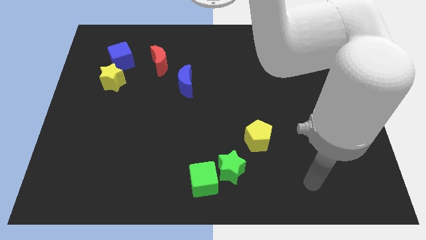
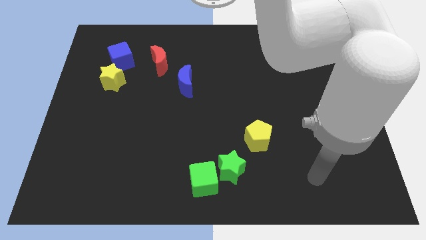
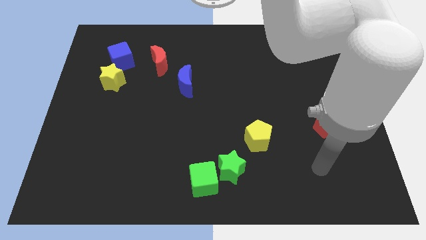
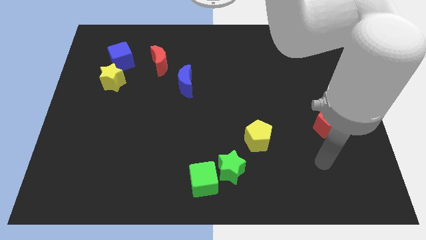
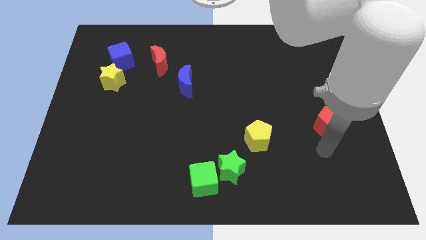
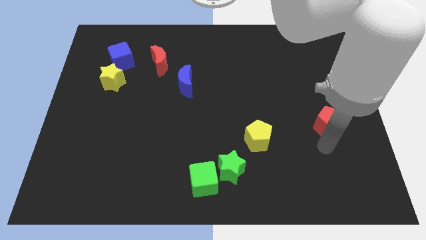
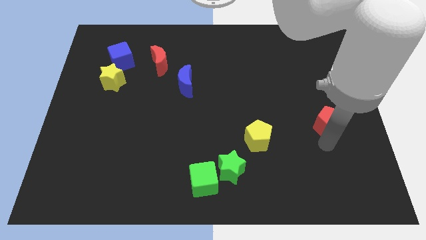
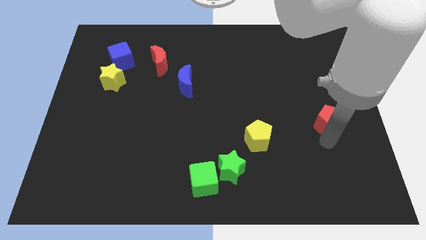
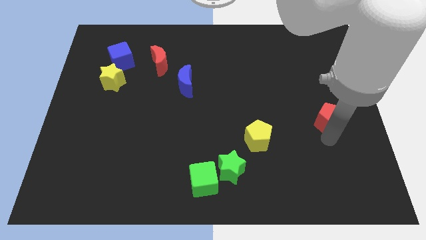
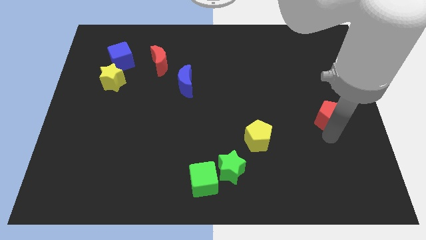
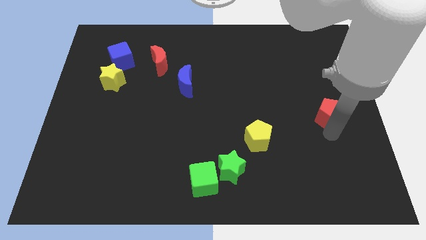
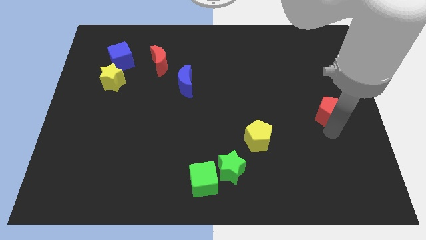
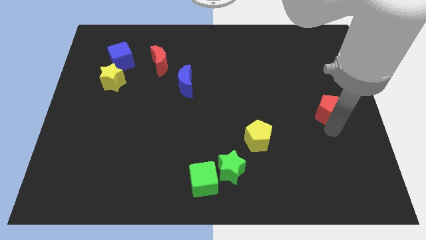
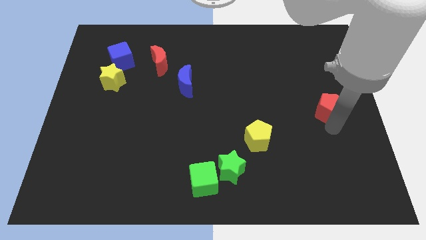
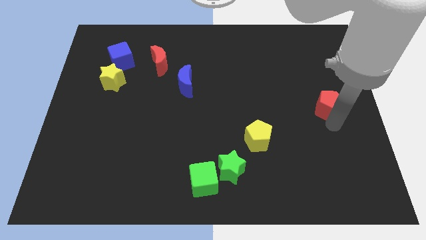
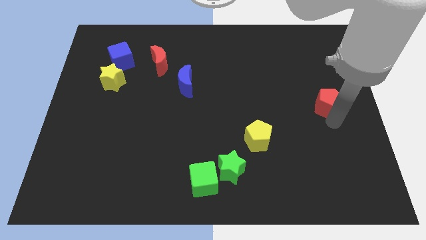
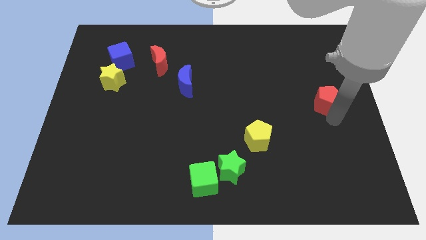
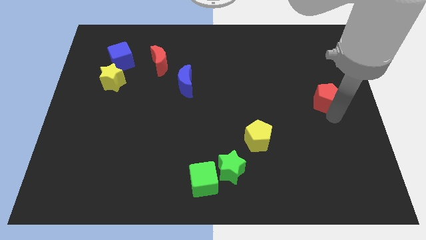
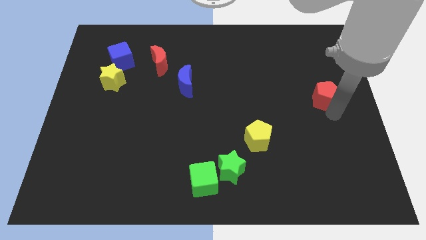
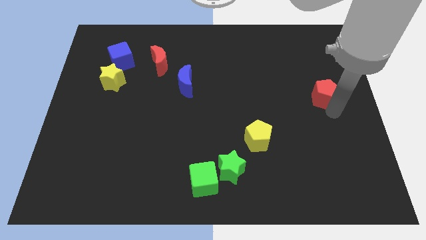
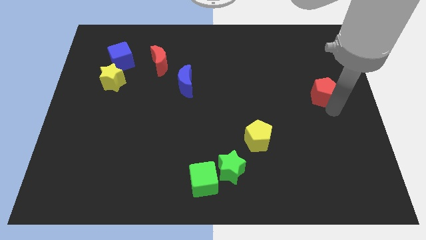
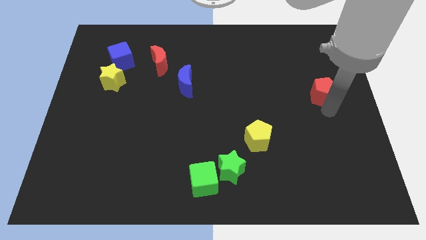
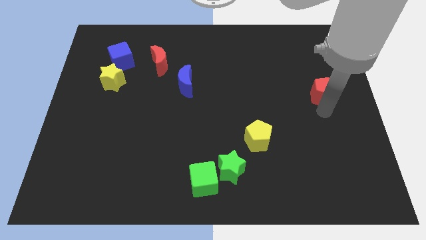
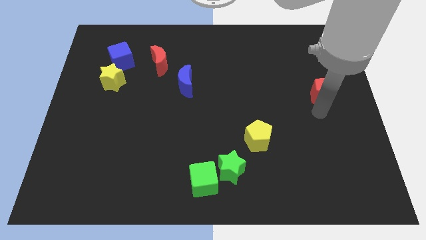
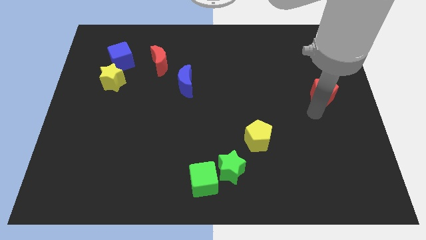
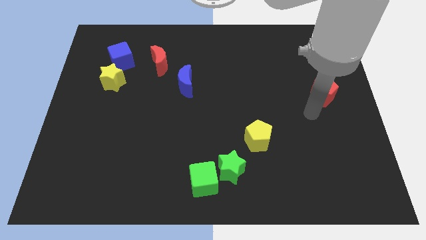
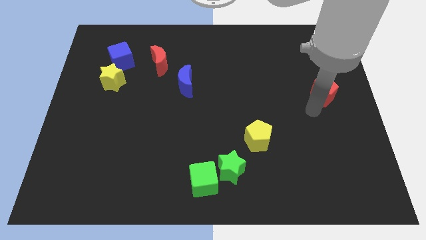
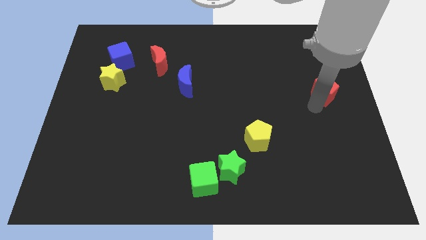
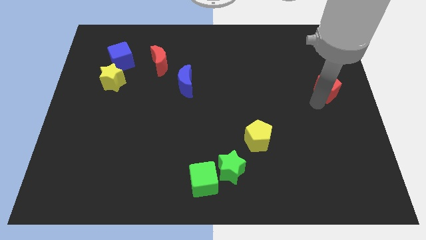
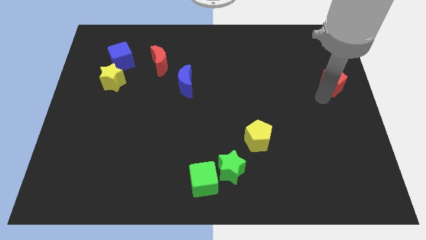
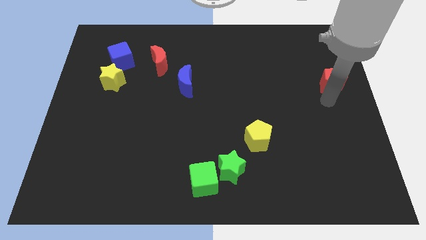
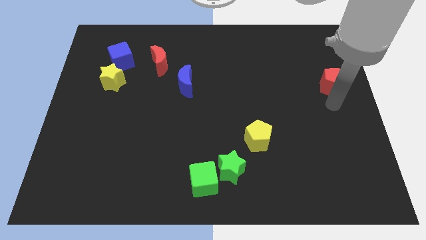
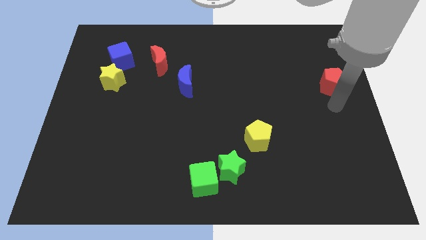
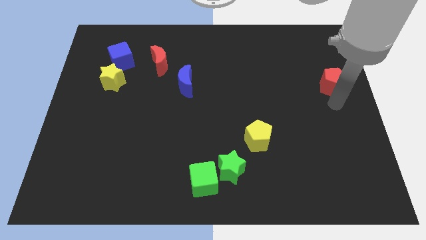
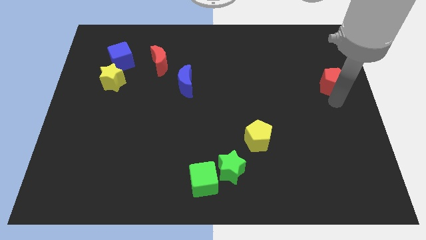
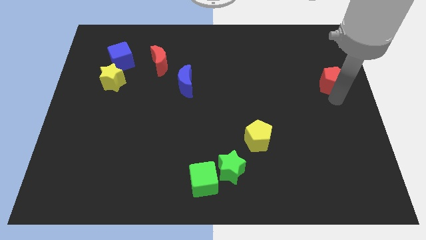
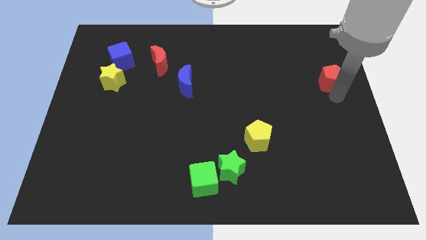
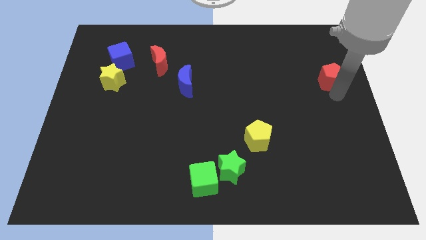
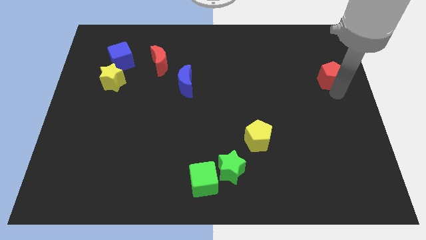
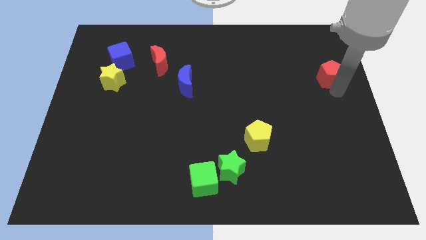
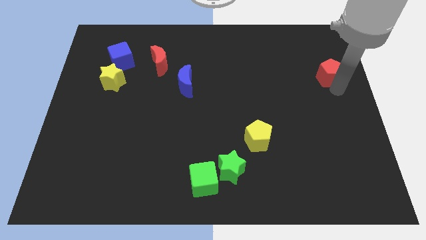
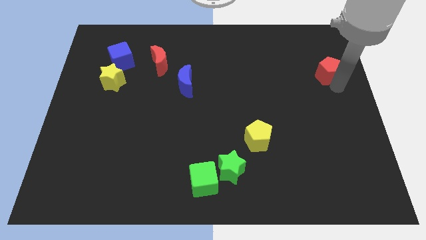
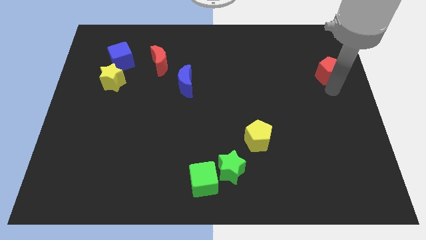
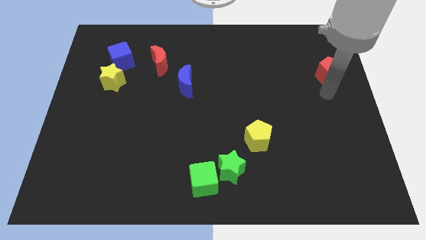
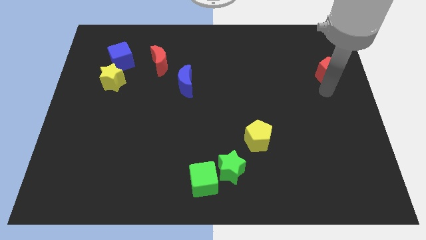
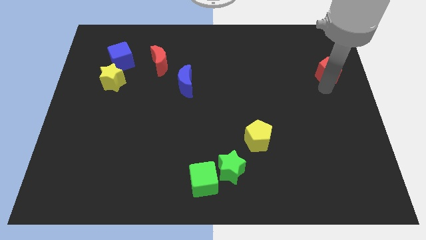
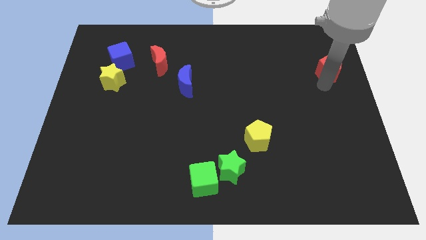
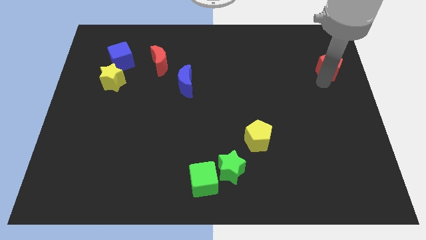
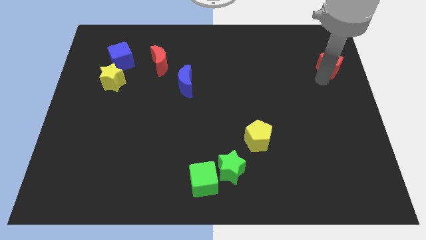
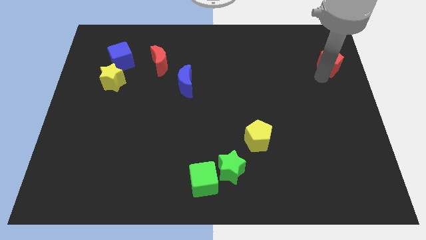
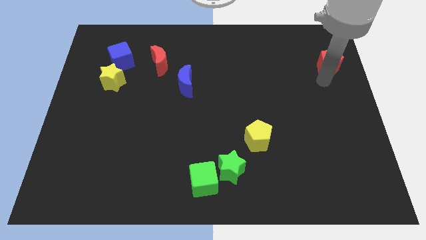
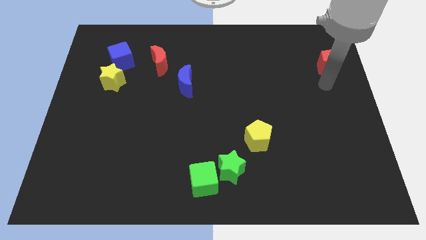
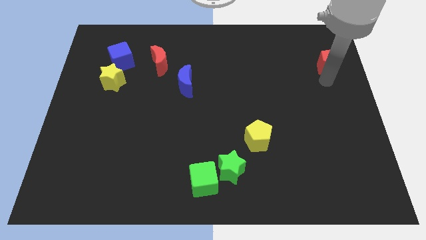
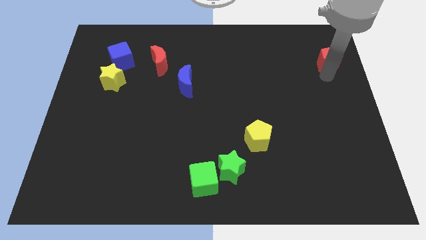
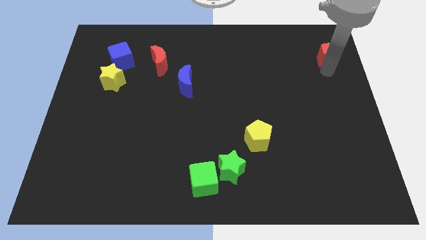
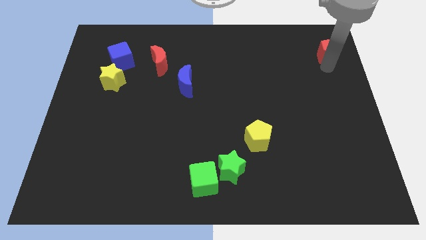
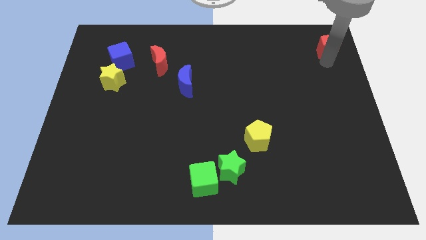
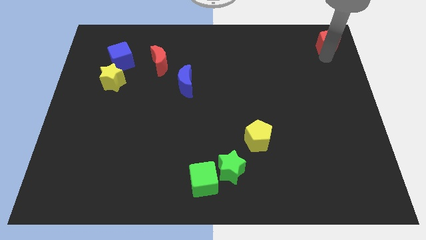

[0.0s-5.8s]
move the red pentagon to the upper right corner

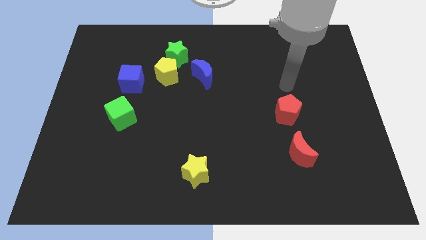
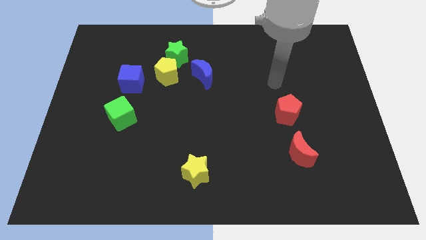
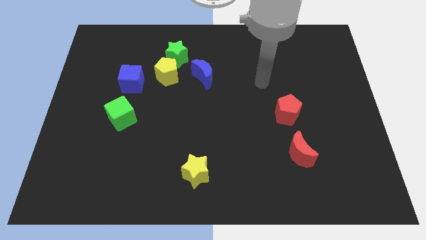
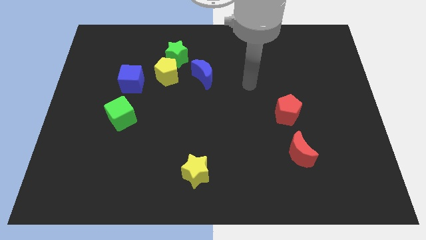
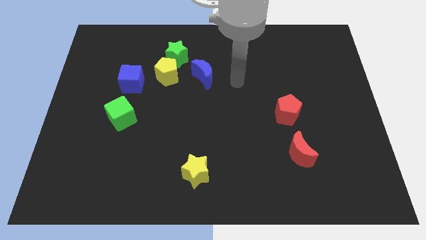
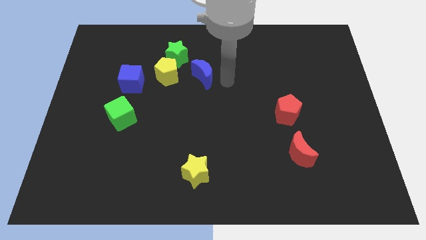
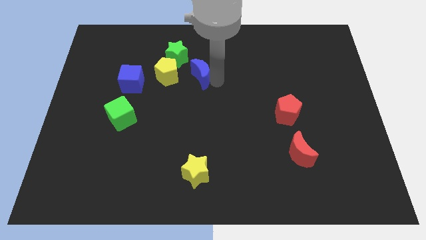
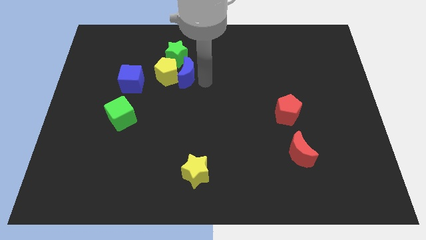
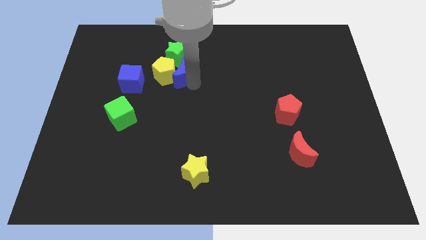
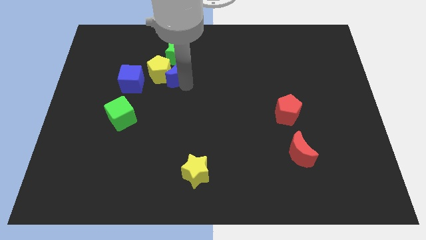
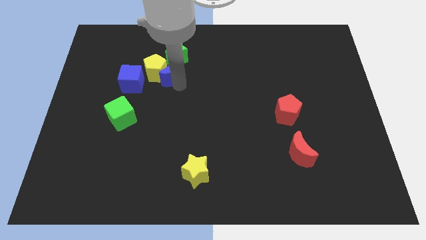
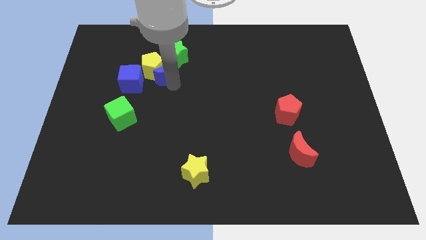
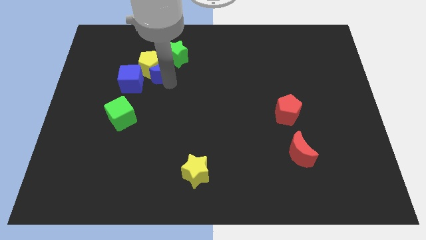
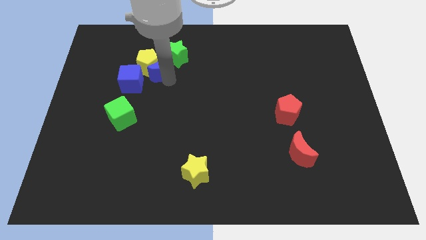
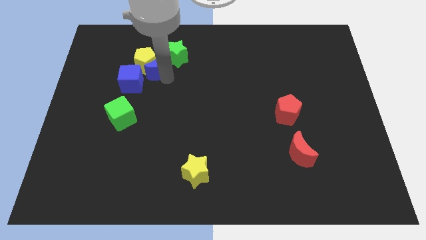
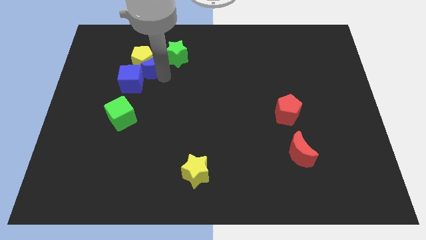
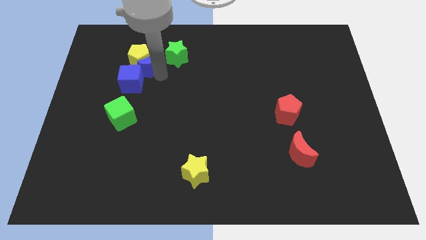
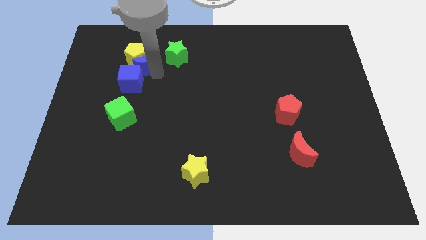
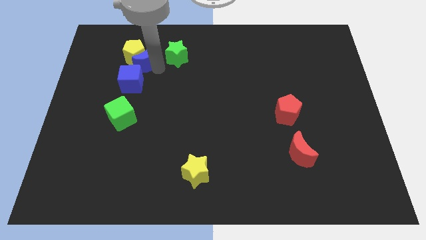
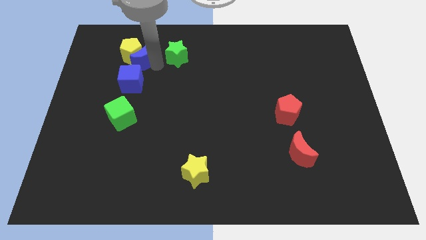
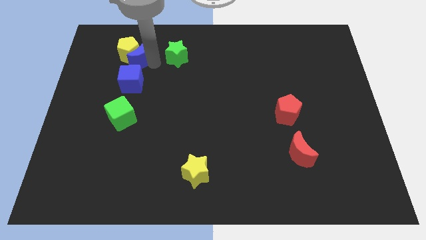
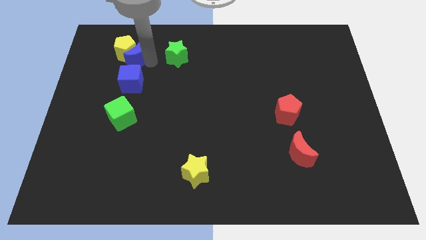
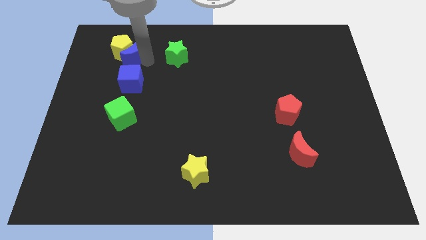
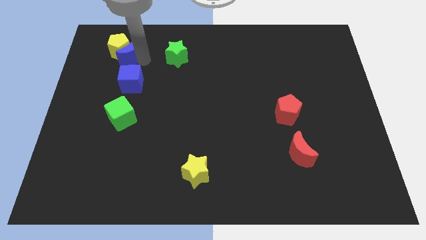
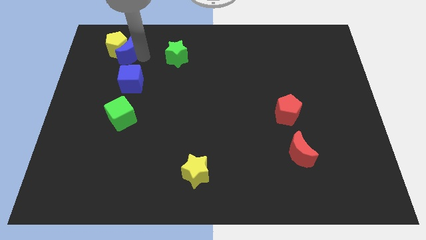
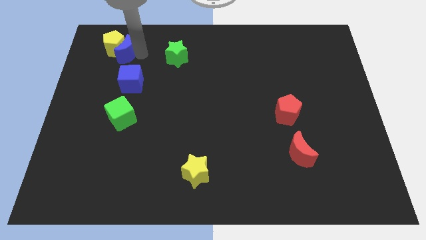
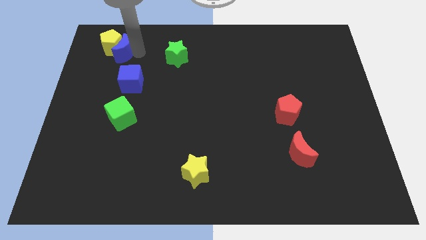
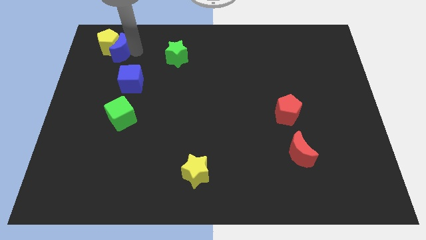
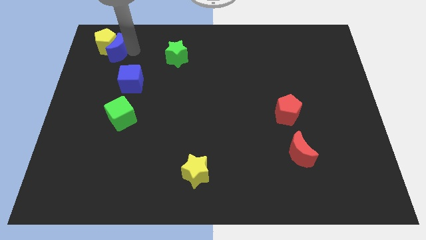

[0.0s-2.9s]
push the yellow pentagon to the top left corner
